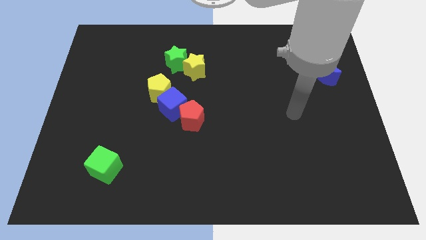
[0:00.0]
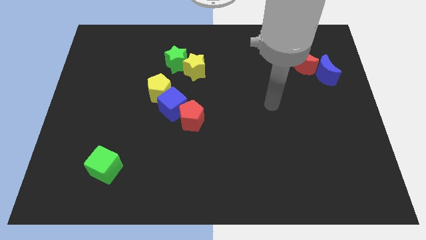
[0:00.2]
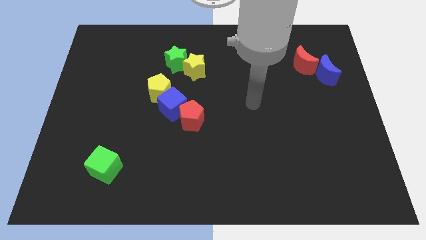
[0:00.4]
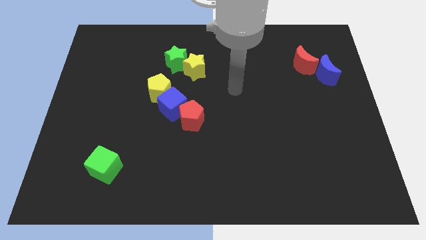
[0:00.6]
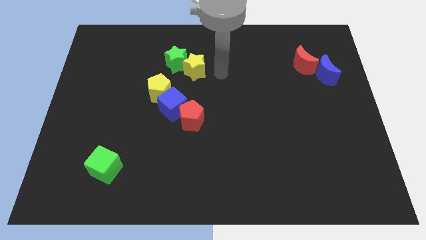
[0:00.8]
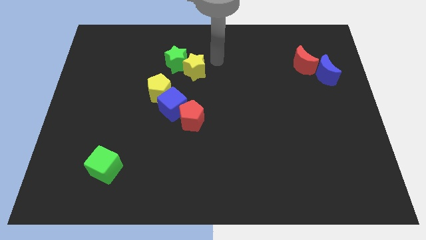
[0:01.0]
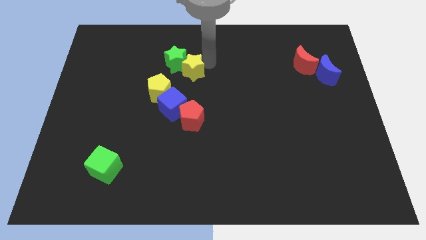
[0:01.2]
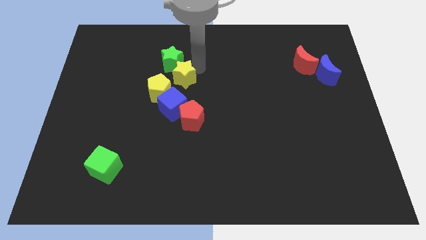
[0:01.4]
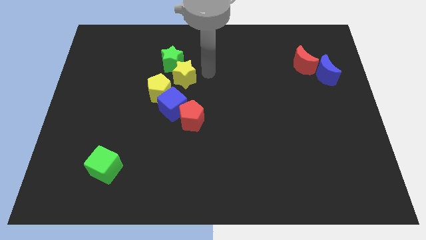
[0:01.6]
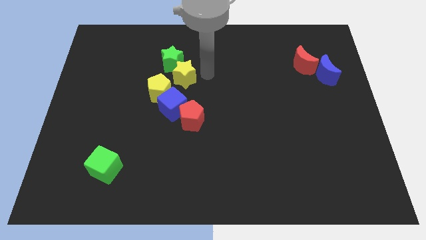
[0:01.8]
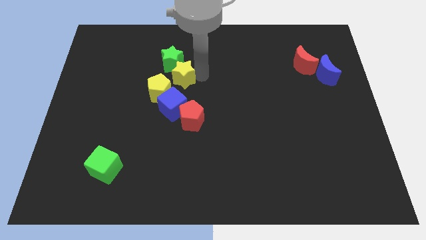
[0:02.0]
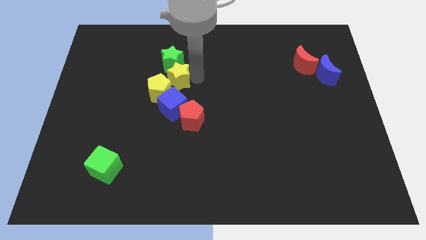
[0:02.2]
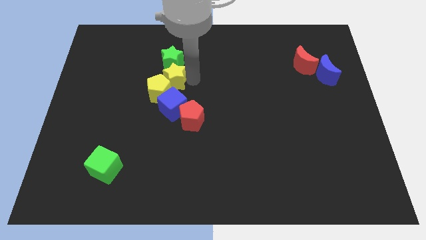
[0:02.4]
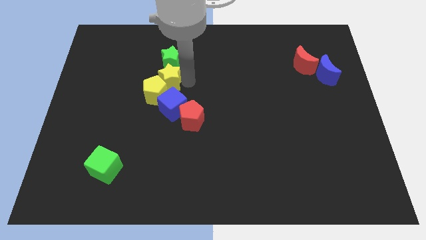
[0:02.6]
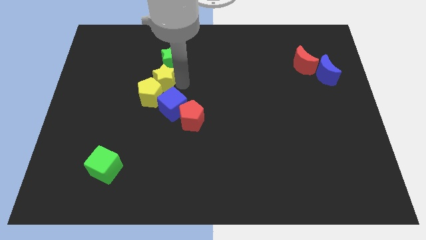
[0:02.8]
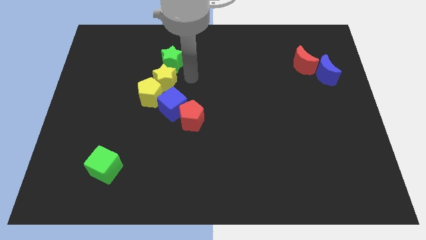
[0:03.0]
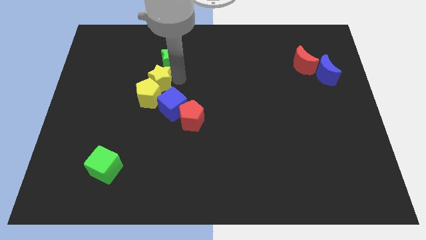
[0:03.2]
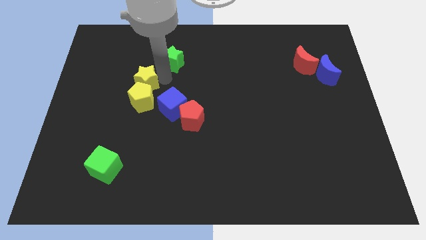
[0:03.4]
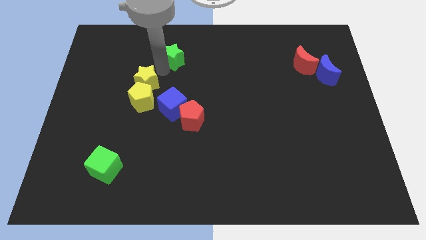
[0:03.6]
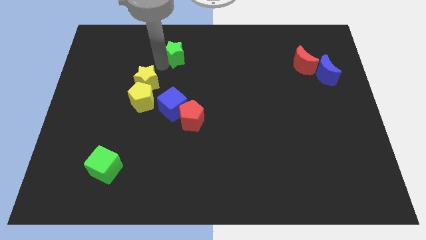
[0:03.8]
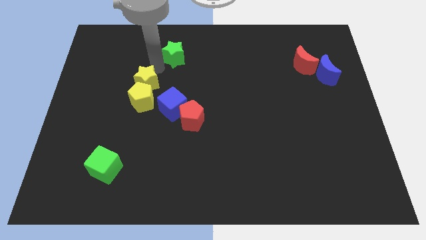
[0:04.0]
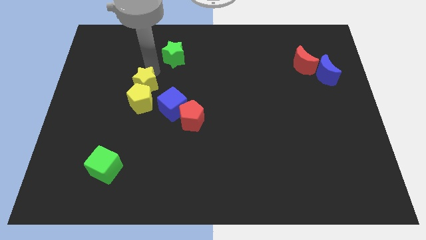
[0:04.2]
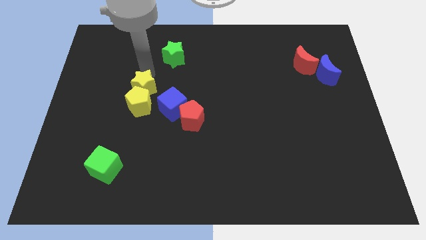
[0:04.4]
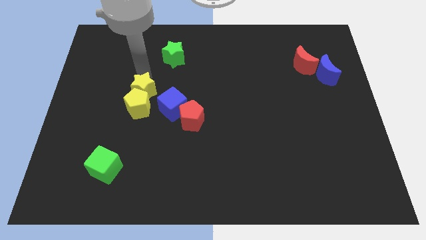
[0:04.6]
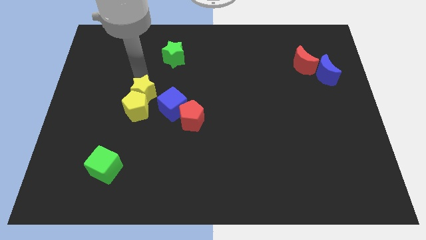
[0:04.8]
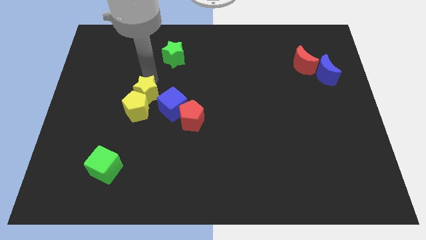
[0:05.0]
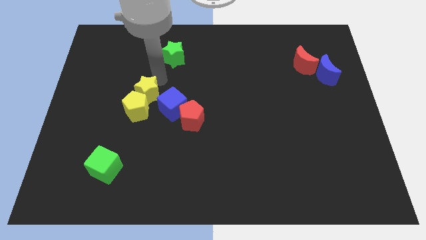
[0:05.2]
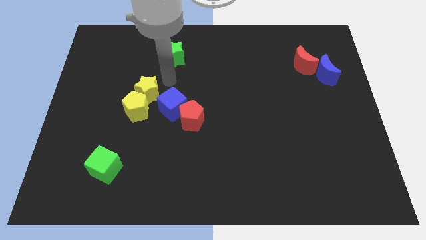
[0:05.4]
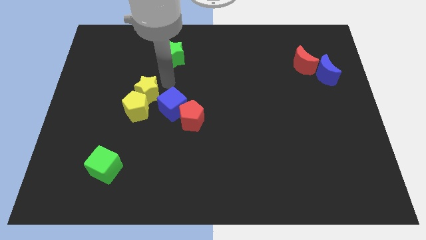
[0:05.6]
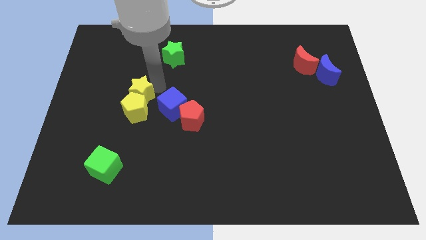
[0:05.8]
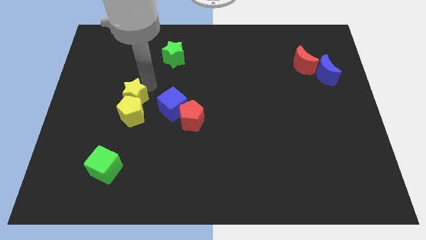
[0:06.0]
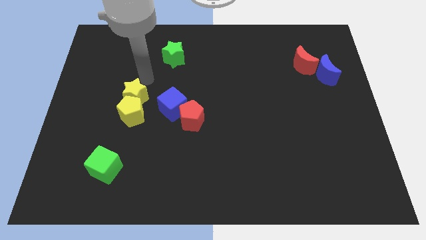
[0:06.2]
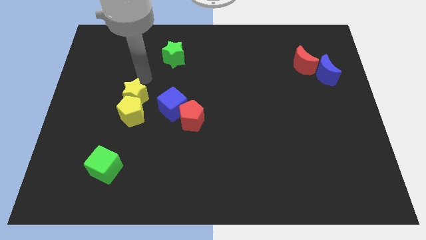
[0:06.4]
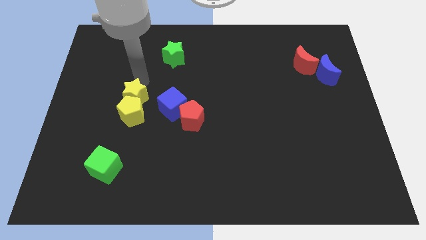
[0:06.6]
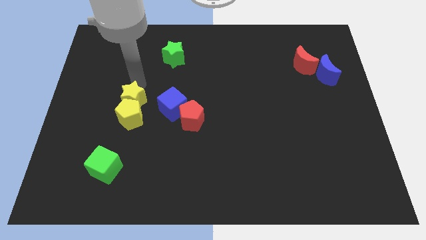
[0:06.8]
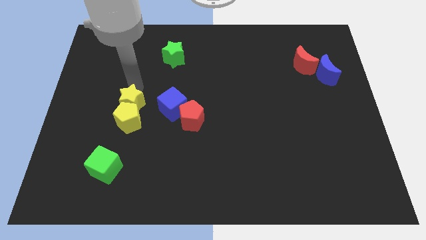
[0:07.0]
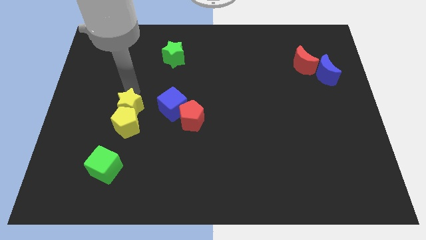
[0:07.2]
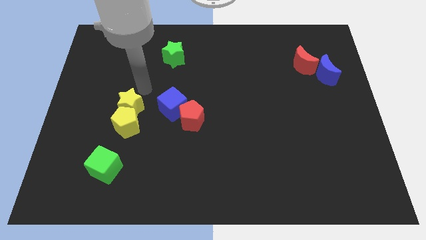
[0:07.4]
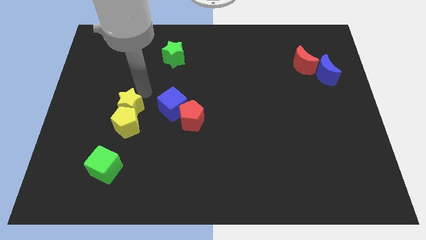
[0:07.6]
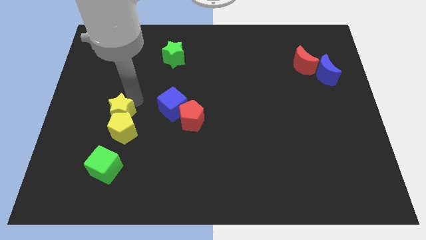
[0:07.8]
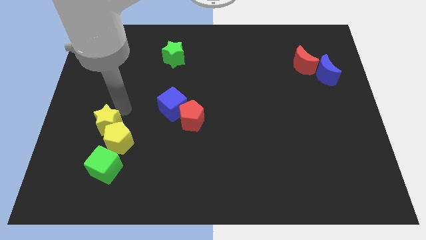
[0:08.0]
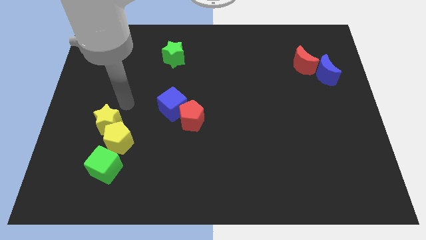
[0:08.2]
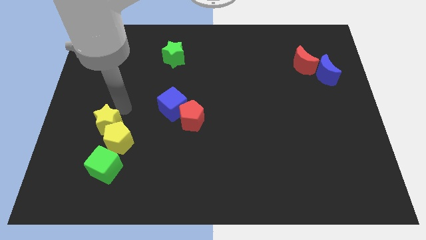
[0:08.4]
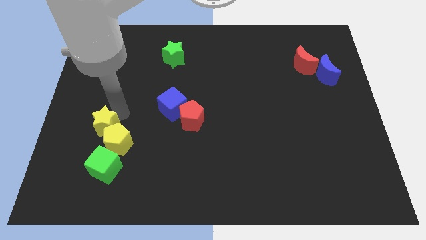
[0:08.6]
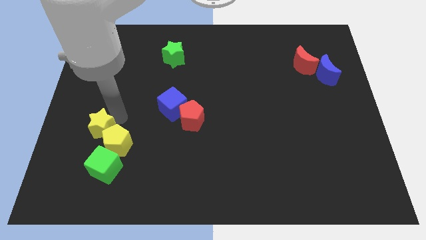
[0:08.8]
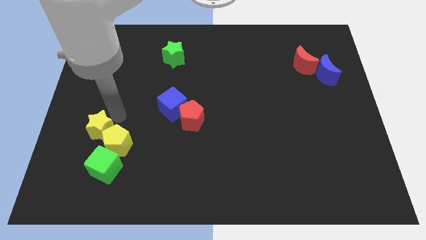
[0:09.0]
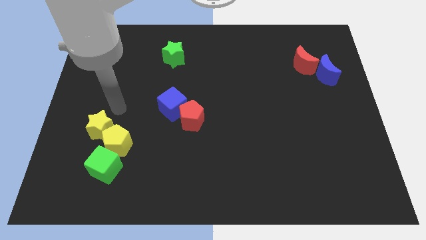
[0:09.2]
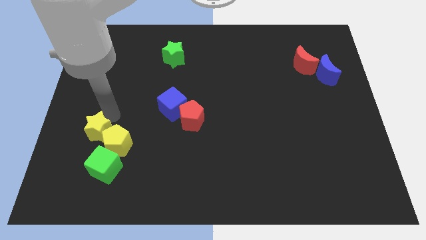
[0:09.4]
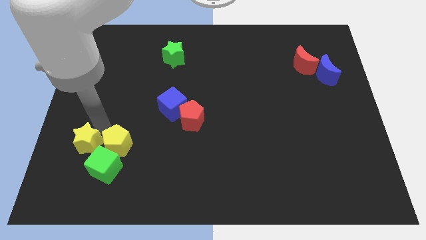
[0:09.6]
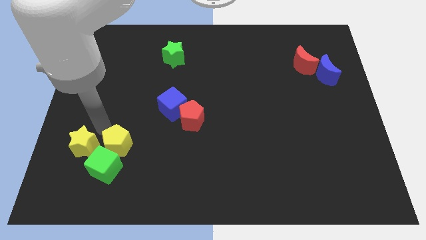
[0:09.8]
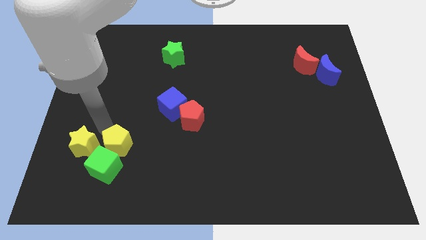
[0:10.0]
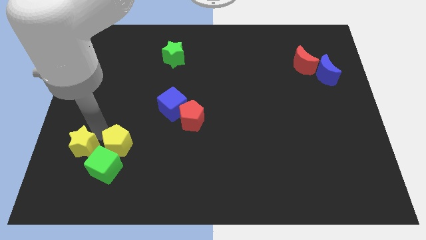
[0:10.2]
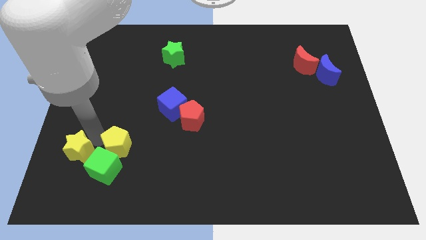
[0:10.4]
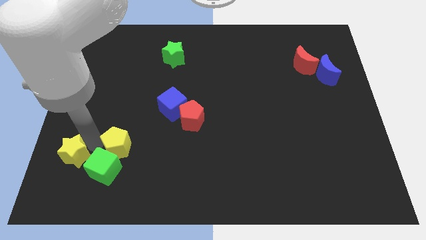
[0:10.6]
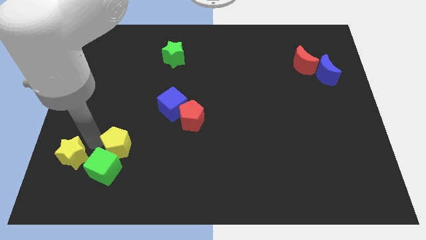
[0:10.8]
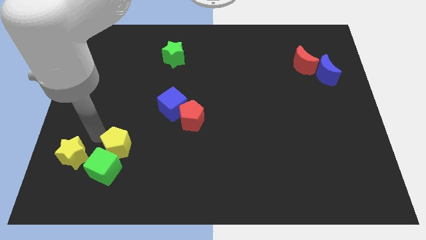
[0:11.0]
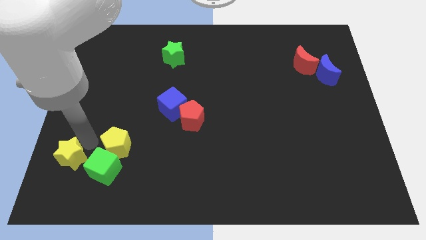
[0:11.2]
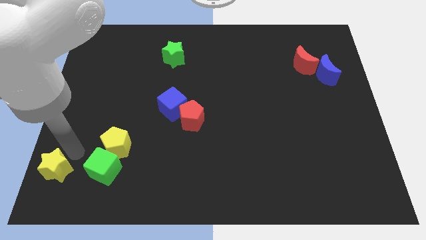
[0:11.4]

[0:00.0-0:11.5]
put the yellow star to the bottom left of the board

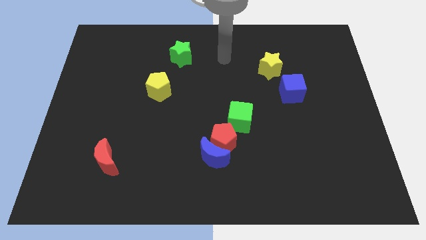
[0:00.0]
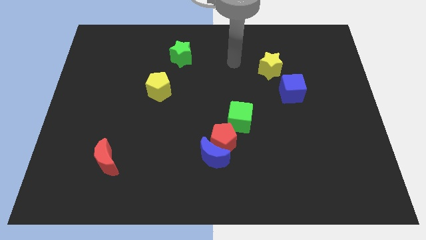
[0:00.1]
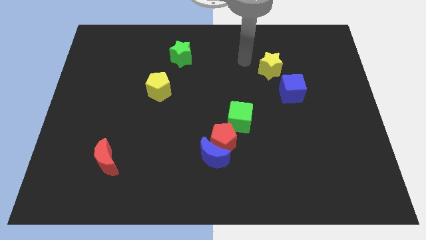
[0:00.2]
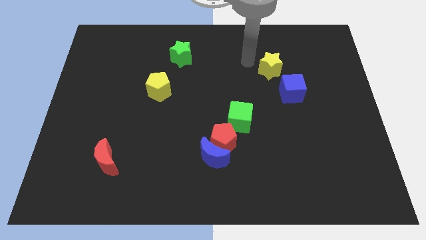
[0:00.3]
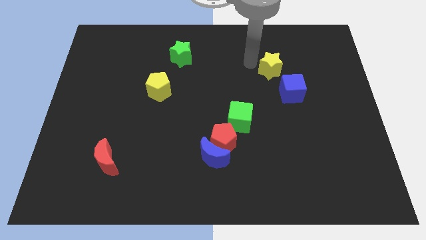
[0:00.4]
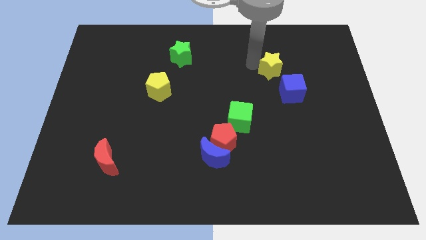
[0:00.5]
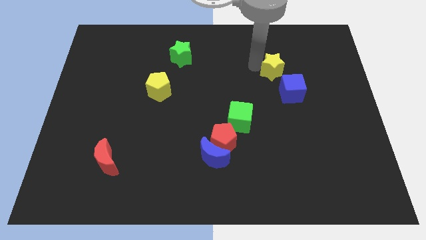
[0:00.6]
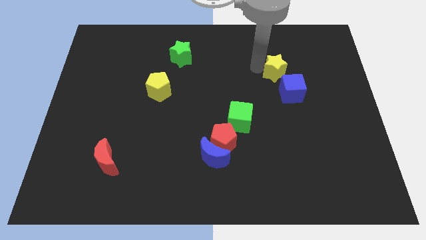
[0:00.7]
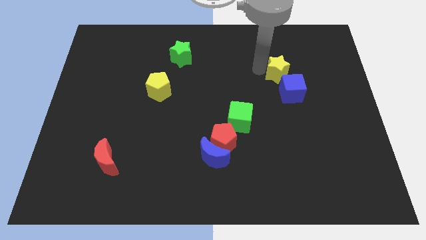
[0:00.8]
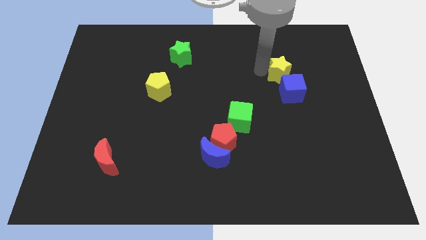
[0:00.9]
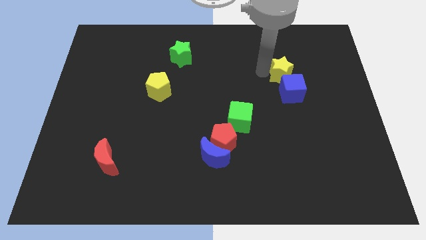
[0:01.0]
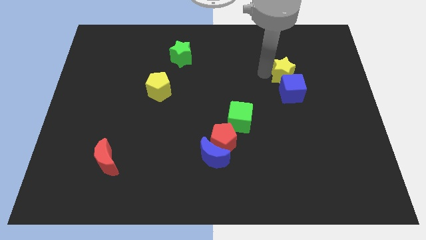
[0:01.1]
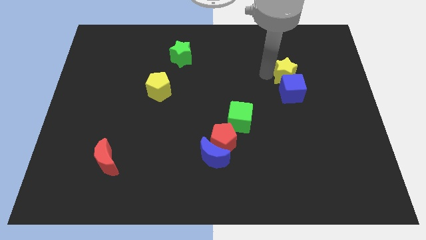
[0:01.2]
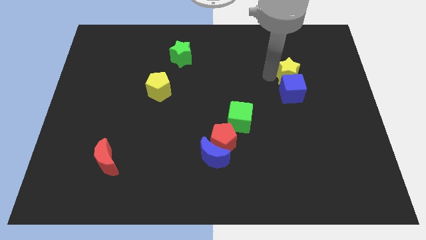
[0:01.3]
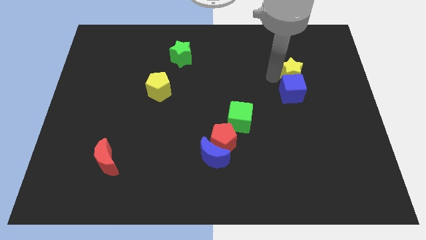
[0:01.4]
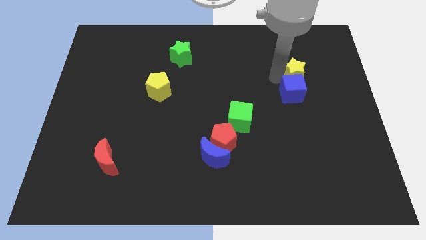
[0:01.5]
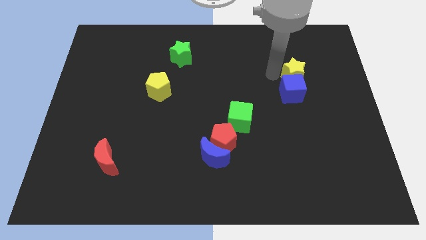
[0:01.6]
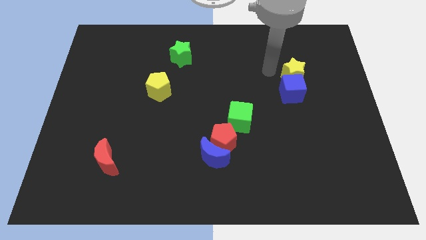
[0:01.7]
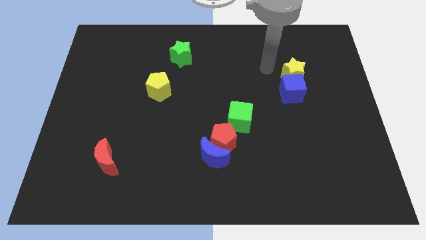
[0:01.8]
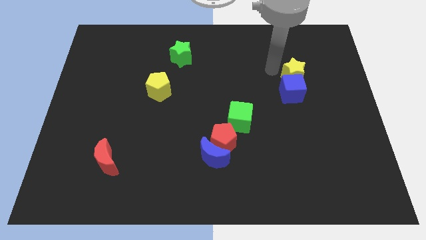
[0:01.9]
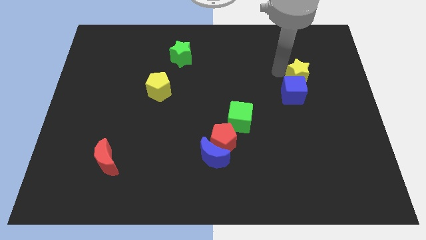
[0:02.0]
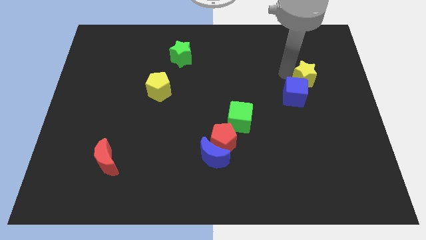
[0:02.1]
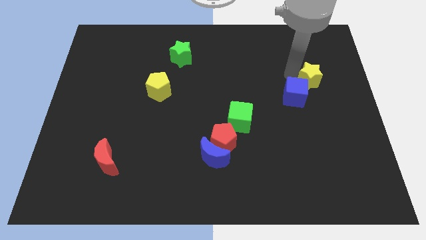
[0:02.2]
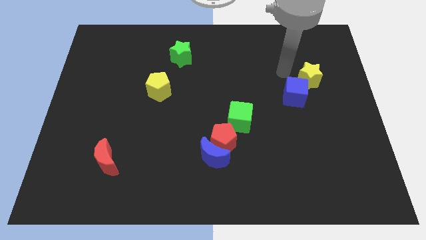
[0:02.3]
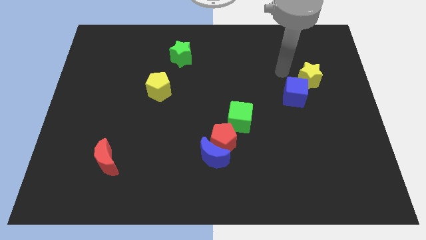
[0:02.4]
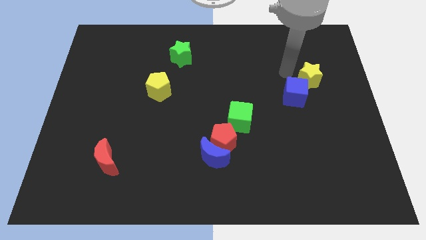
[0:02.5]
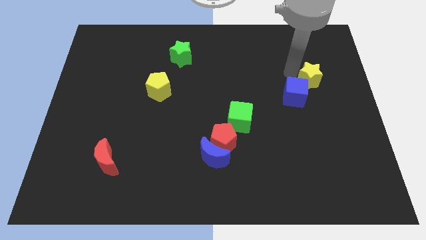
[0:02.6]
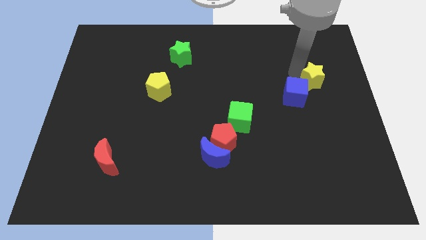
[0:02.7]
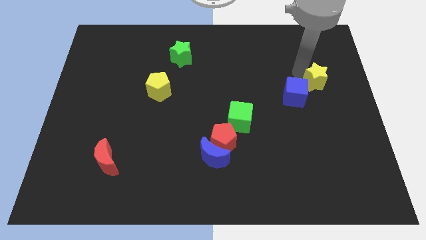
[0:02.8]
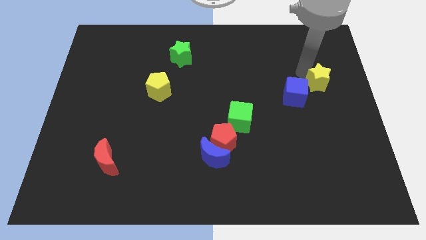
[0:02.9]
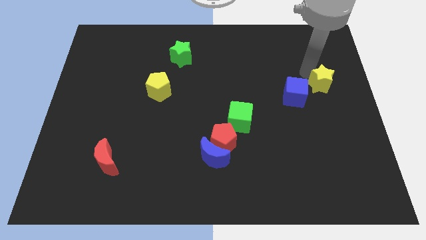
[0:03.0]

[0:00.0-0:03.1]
slide the yellow star to the center right
